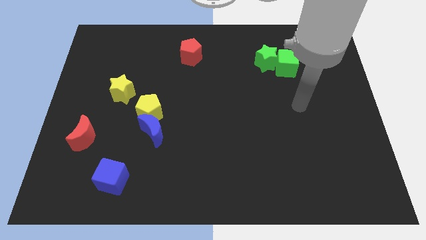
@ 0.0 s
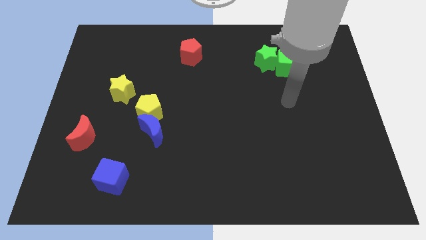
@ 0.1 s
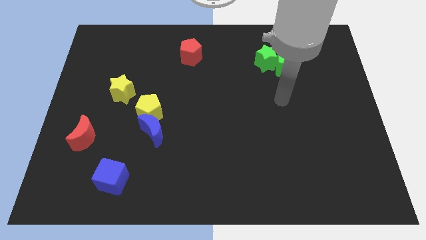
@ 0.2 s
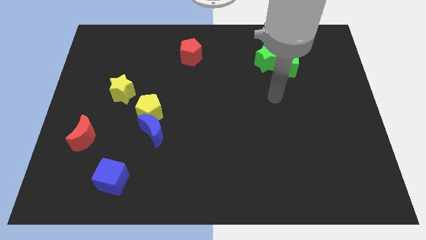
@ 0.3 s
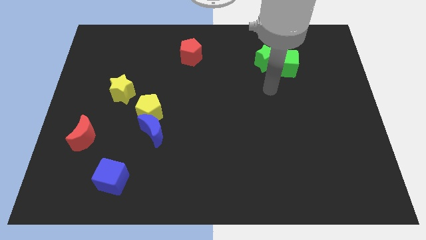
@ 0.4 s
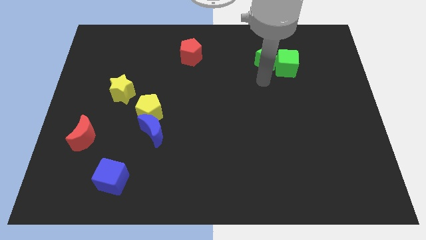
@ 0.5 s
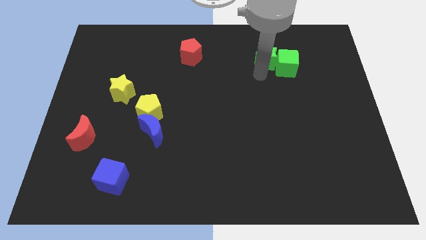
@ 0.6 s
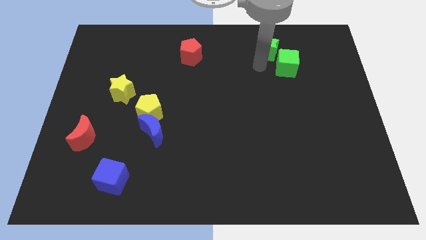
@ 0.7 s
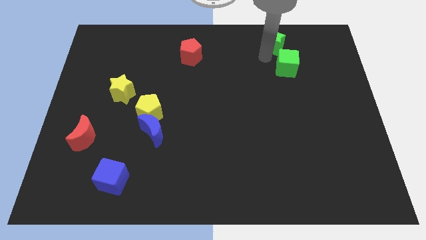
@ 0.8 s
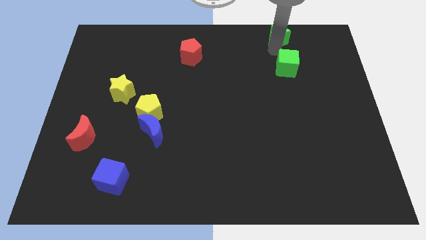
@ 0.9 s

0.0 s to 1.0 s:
separate the green cube from the green star

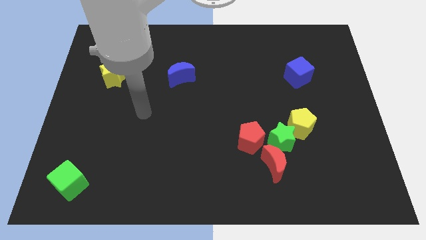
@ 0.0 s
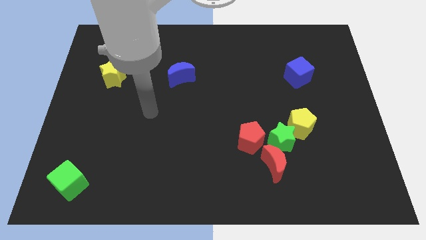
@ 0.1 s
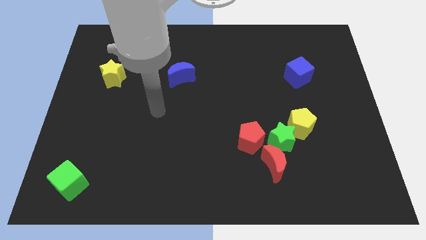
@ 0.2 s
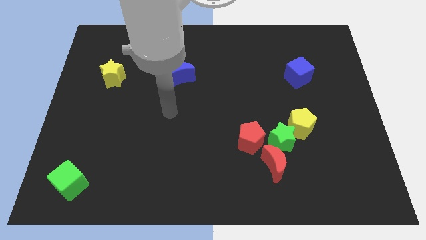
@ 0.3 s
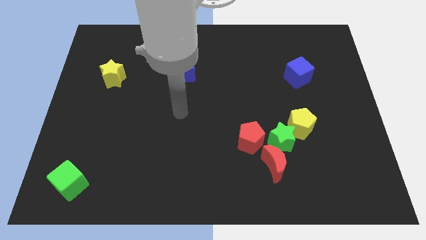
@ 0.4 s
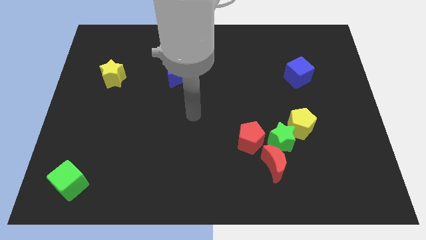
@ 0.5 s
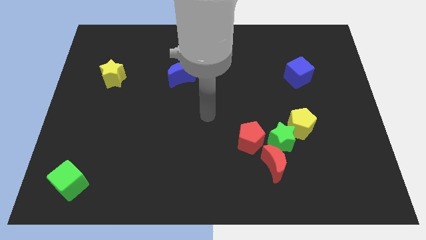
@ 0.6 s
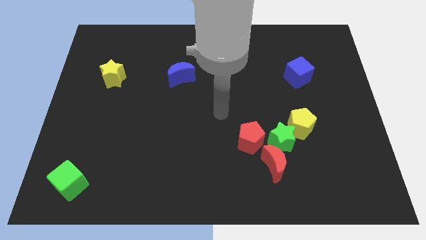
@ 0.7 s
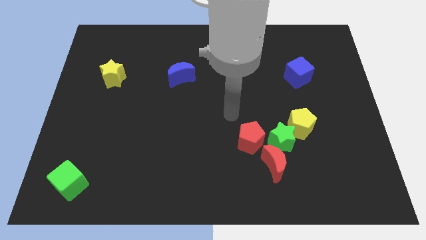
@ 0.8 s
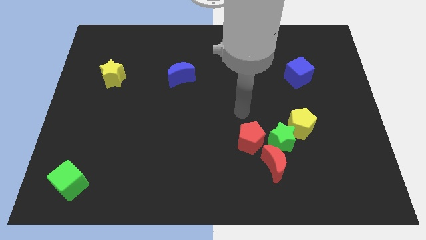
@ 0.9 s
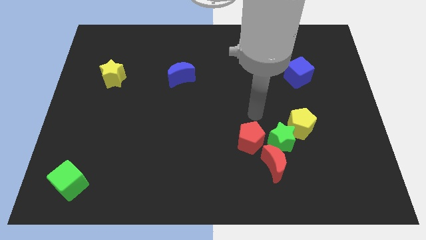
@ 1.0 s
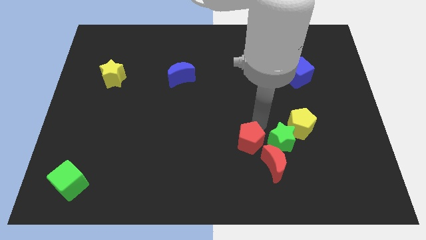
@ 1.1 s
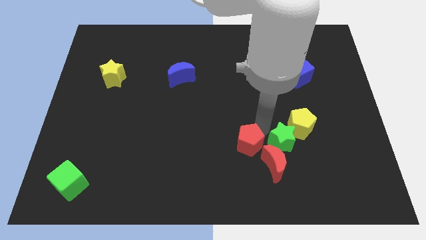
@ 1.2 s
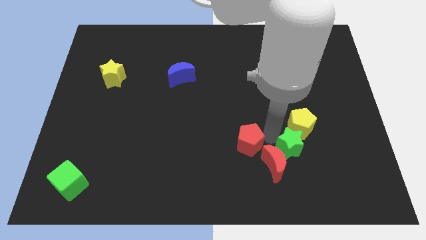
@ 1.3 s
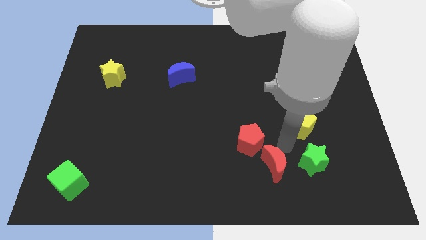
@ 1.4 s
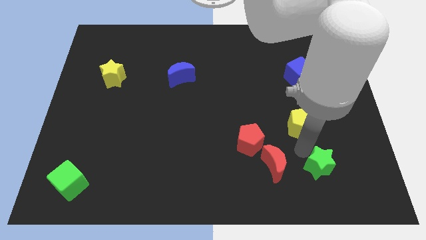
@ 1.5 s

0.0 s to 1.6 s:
pull the yellow pentagon apart from the green star

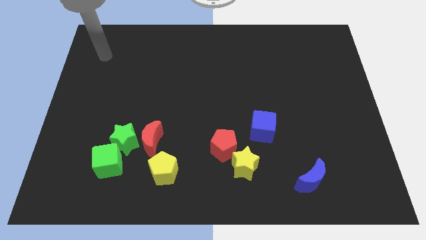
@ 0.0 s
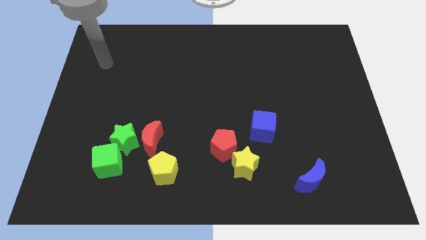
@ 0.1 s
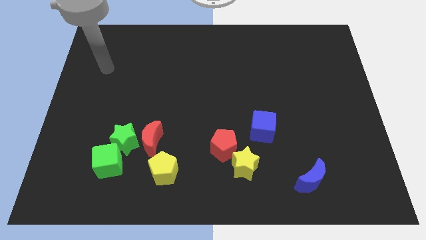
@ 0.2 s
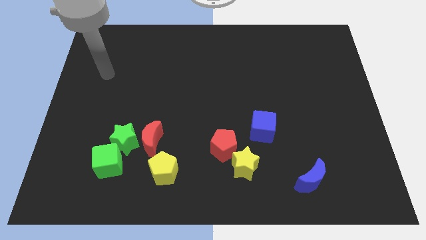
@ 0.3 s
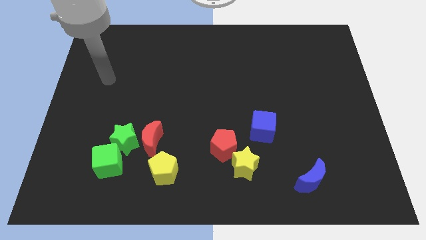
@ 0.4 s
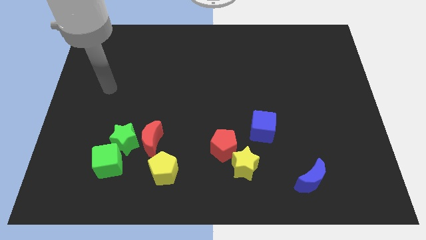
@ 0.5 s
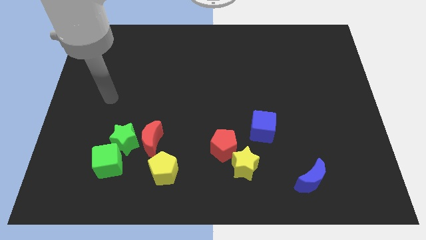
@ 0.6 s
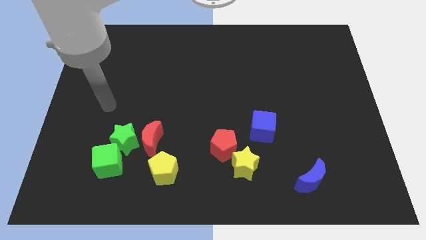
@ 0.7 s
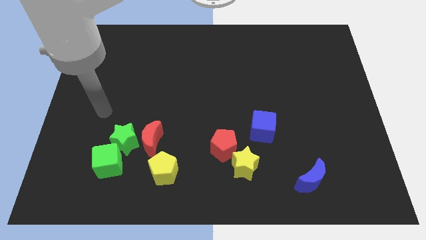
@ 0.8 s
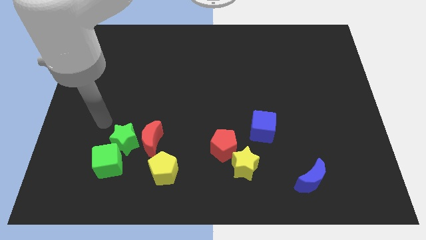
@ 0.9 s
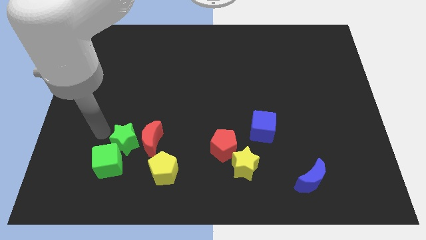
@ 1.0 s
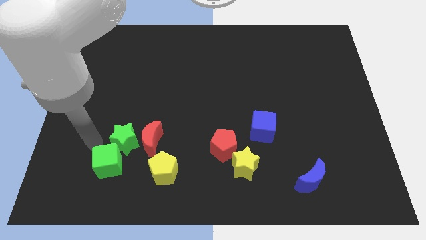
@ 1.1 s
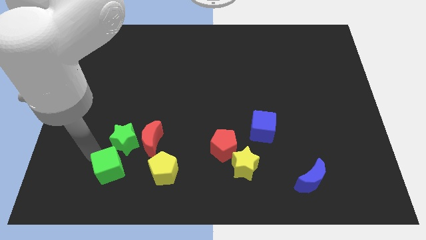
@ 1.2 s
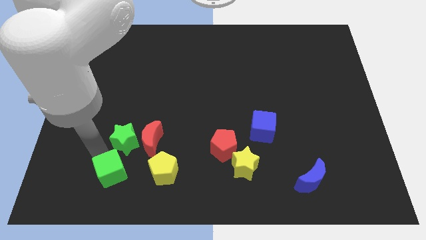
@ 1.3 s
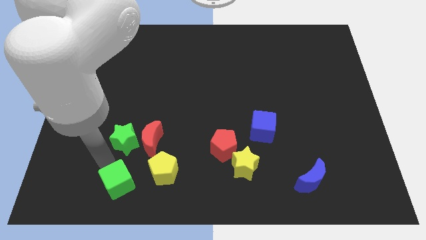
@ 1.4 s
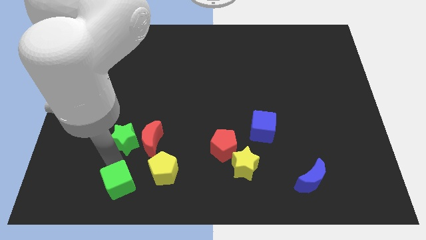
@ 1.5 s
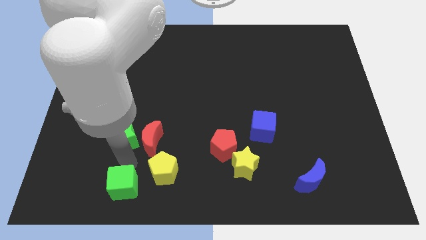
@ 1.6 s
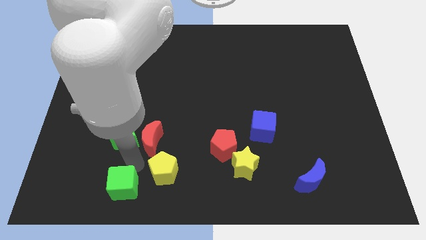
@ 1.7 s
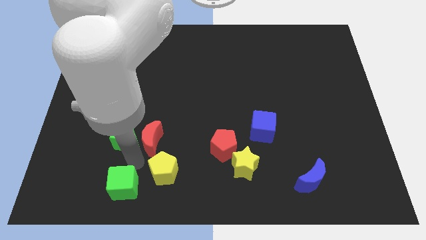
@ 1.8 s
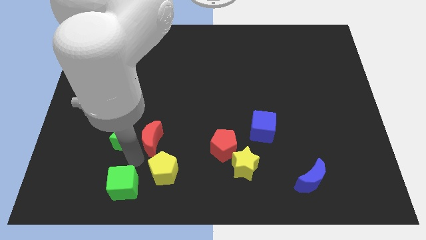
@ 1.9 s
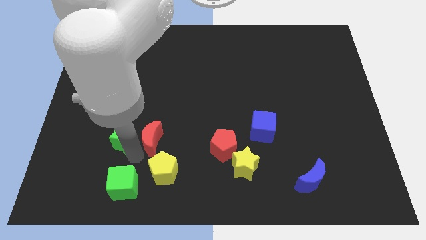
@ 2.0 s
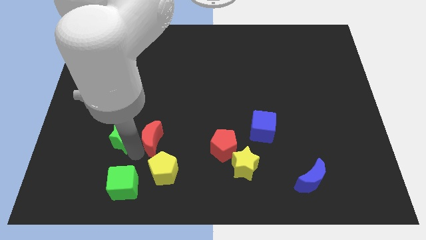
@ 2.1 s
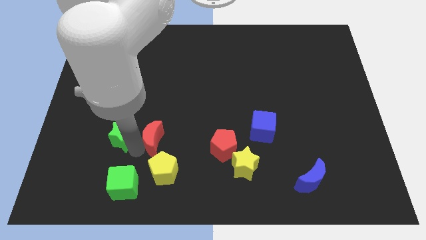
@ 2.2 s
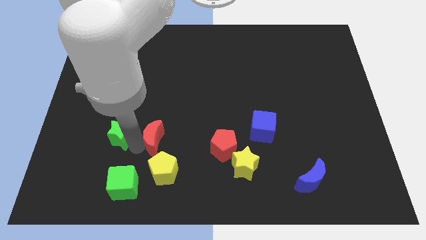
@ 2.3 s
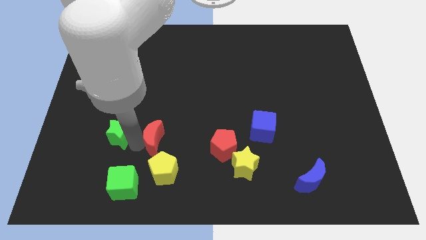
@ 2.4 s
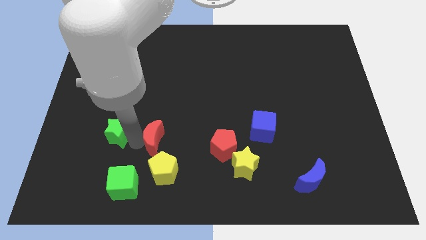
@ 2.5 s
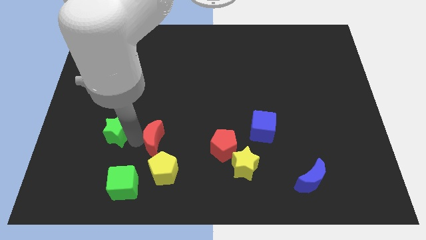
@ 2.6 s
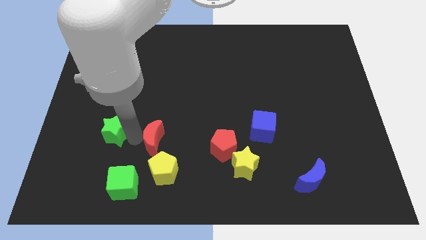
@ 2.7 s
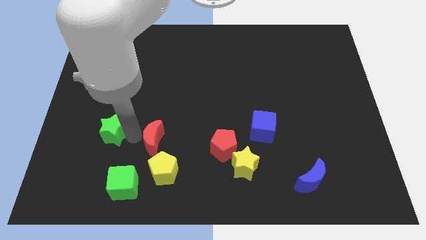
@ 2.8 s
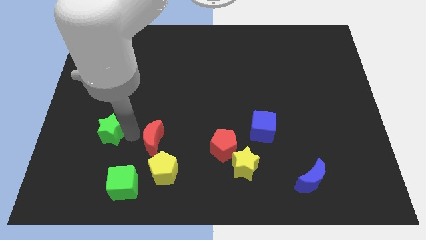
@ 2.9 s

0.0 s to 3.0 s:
pull the green star apart from the red moon and green cube

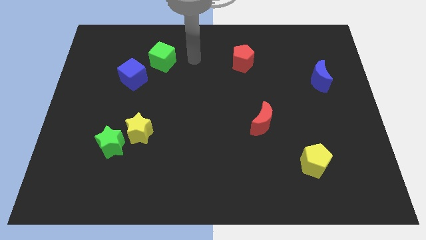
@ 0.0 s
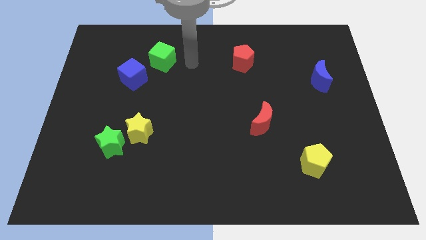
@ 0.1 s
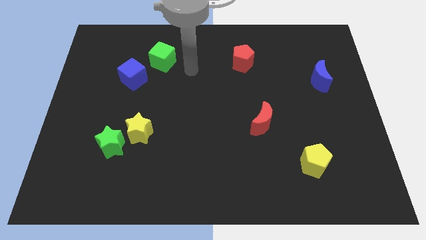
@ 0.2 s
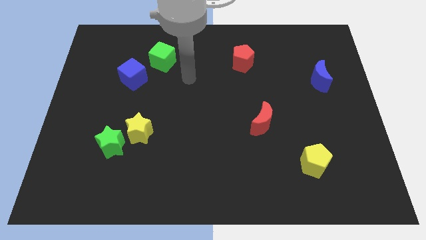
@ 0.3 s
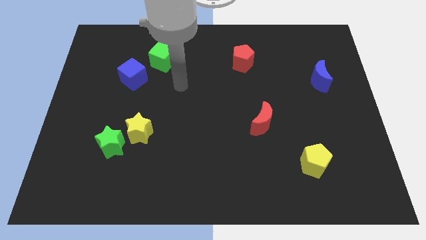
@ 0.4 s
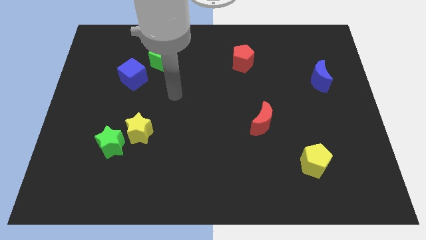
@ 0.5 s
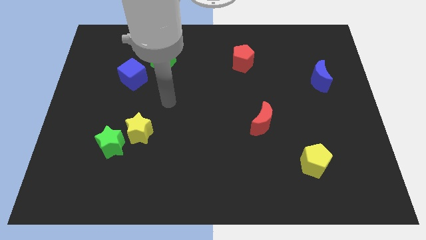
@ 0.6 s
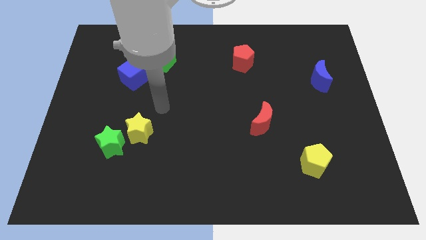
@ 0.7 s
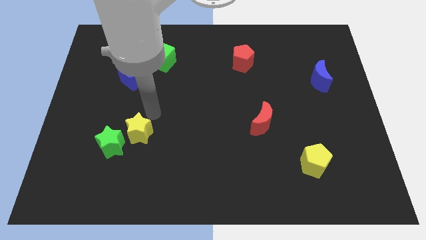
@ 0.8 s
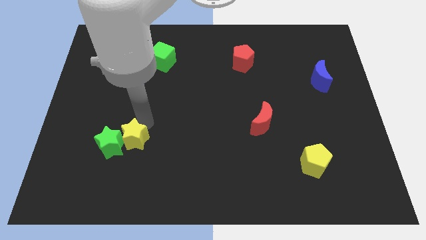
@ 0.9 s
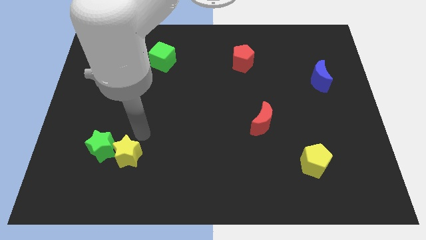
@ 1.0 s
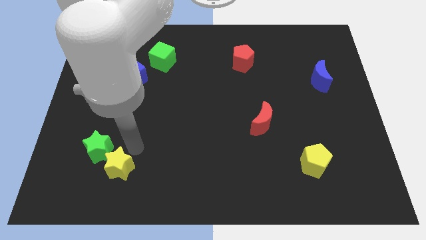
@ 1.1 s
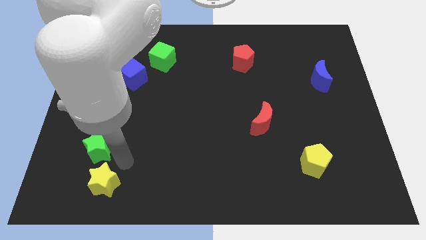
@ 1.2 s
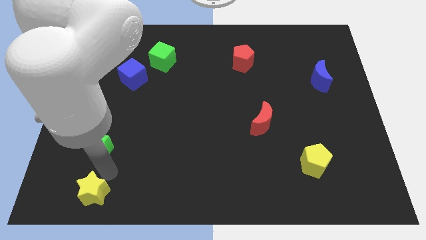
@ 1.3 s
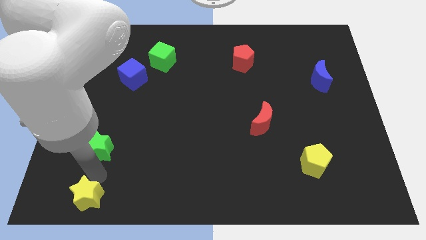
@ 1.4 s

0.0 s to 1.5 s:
move the green star away from the yellow star

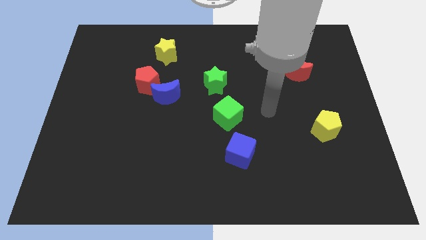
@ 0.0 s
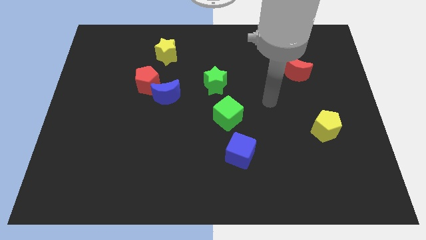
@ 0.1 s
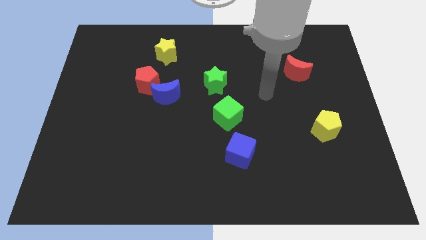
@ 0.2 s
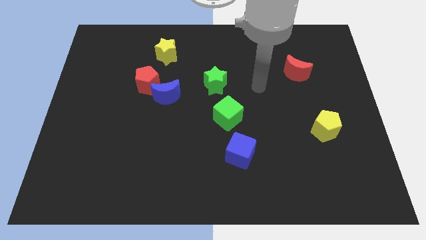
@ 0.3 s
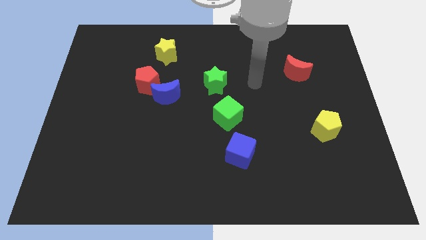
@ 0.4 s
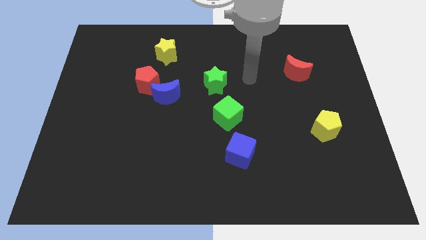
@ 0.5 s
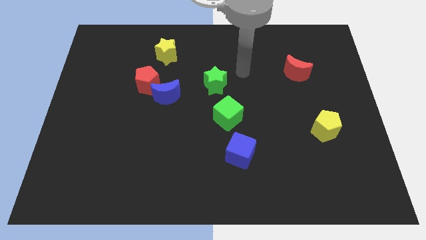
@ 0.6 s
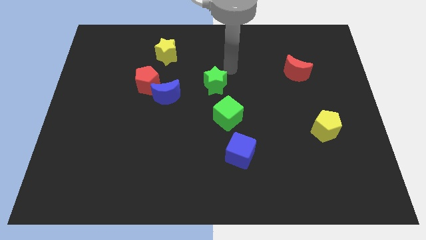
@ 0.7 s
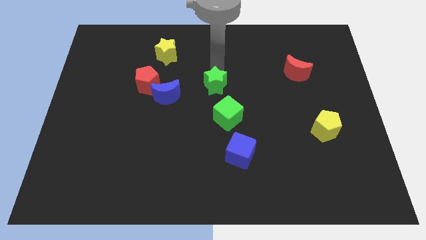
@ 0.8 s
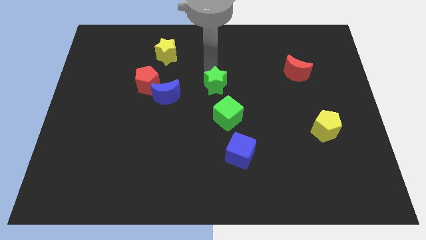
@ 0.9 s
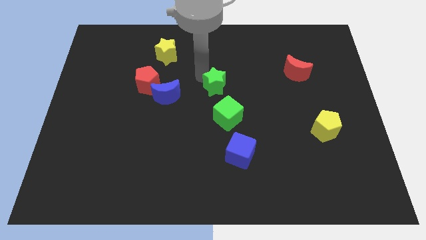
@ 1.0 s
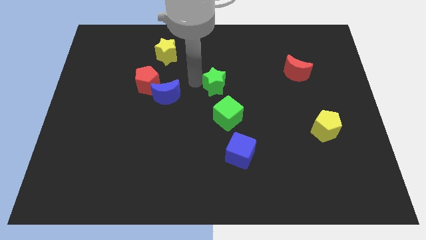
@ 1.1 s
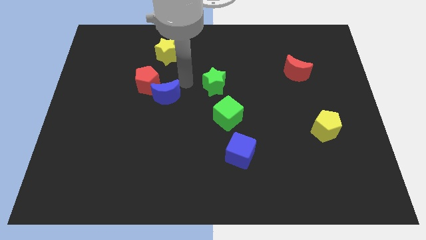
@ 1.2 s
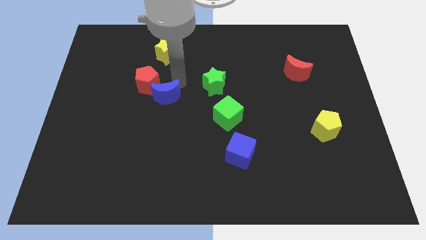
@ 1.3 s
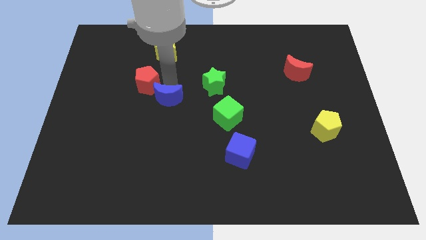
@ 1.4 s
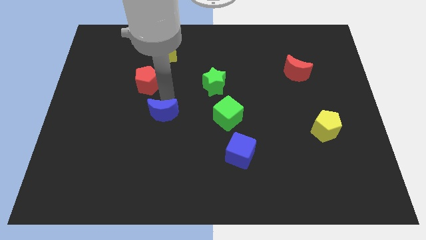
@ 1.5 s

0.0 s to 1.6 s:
pull the red pentagon apart from the blue moon

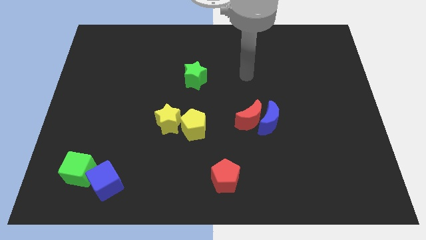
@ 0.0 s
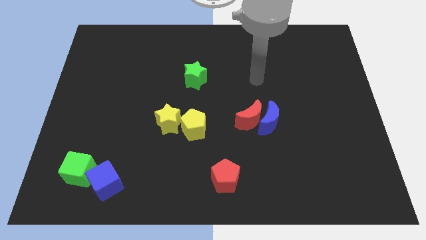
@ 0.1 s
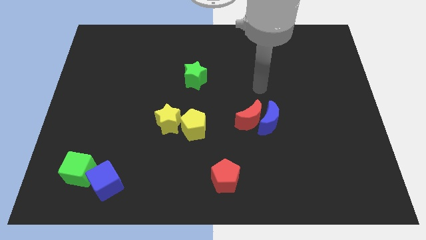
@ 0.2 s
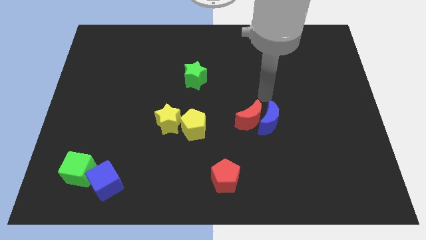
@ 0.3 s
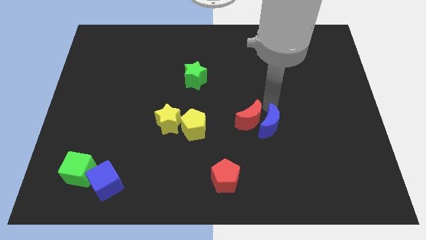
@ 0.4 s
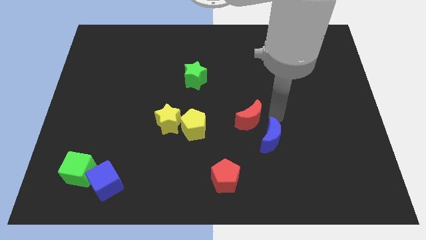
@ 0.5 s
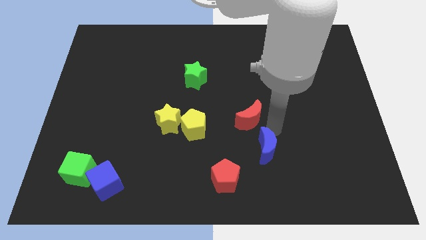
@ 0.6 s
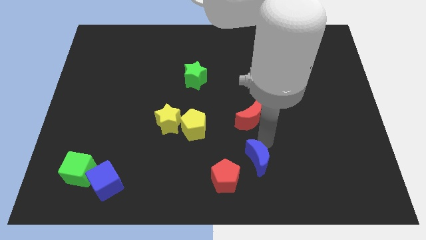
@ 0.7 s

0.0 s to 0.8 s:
move the red moon away from the blue moon
